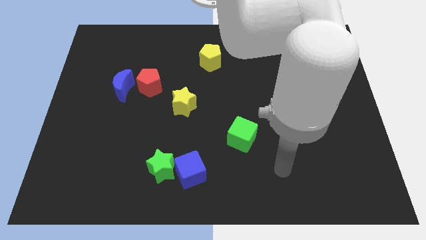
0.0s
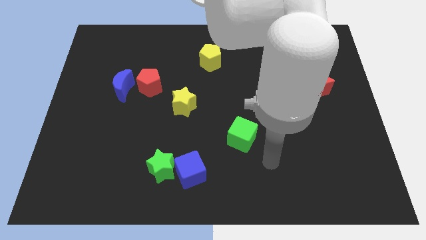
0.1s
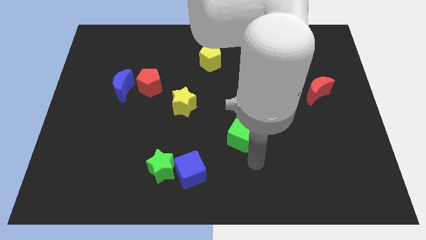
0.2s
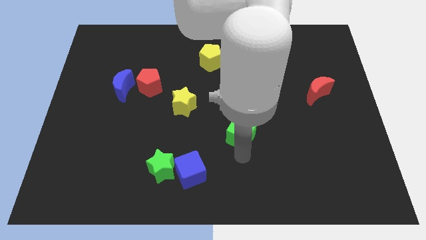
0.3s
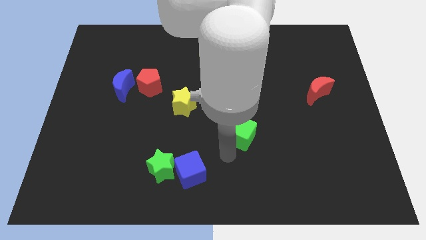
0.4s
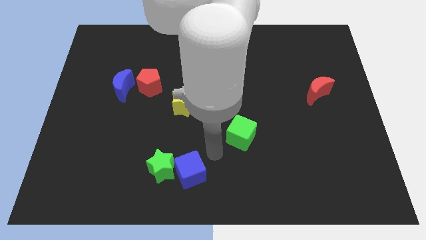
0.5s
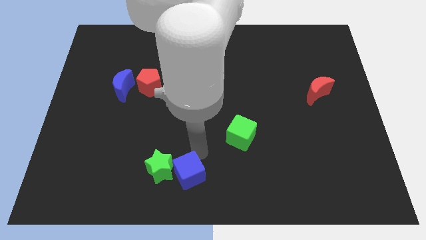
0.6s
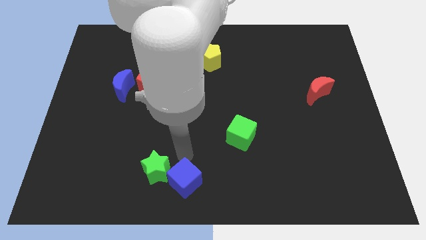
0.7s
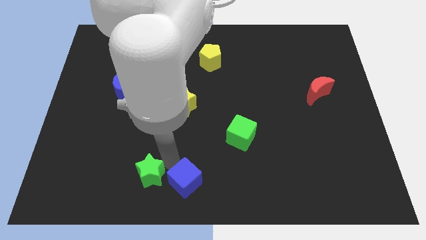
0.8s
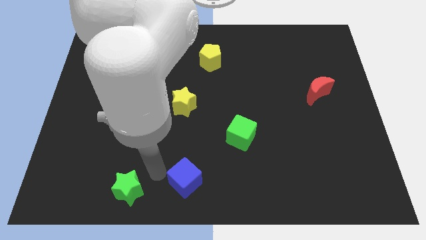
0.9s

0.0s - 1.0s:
move the blue cube away from the green star

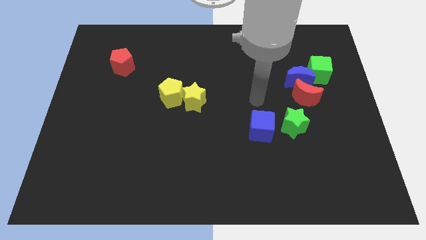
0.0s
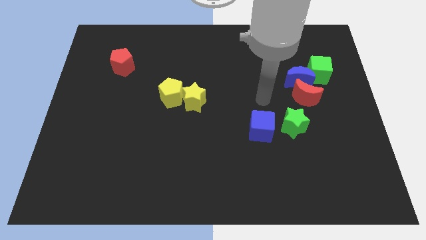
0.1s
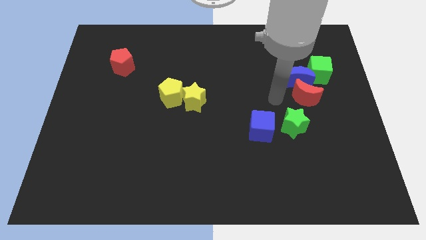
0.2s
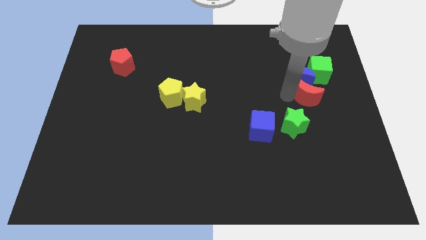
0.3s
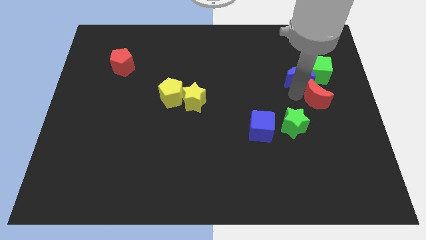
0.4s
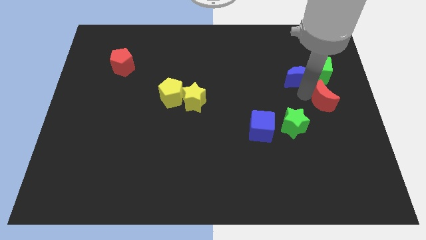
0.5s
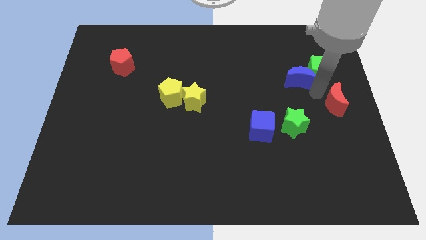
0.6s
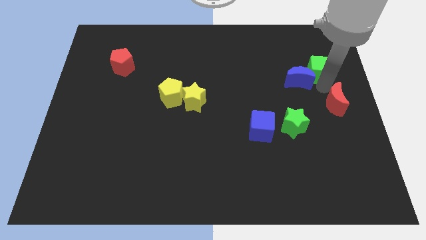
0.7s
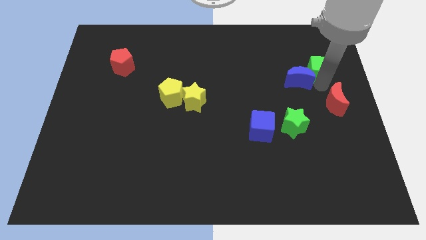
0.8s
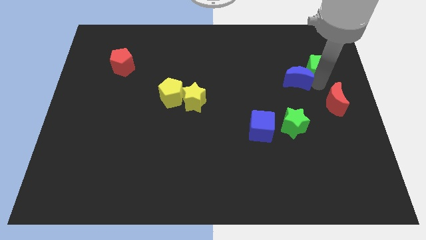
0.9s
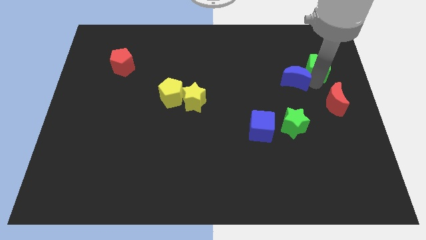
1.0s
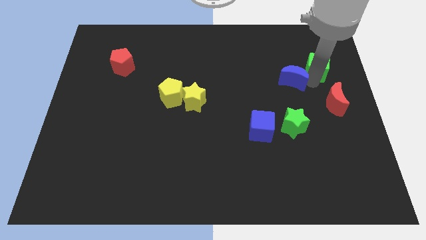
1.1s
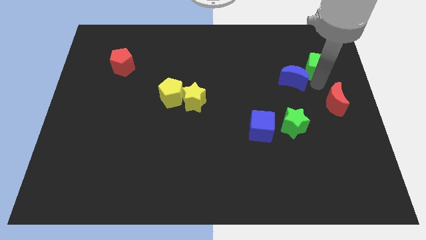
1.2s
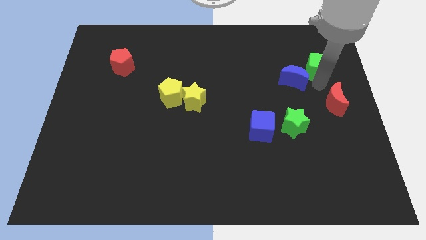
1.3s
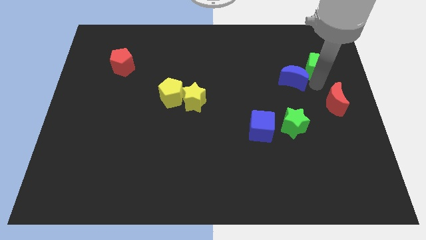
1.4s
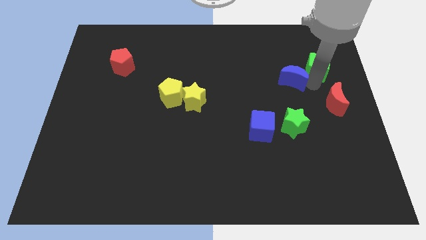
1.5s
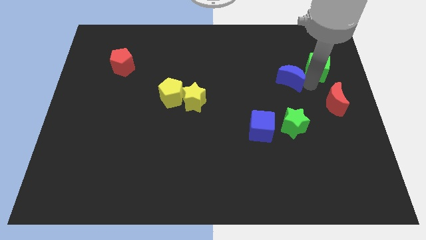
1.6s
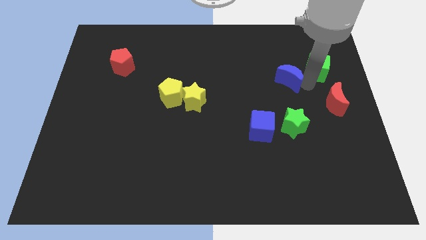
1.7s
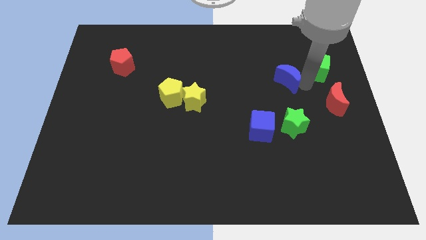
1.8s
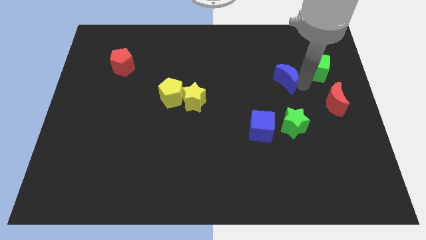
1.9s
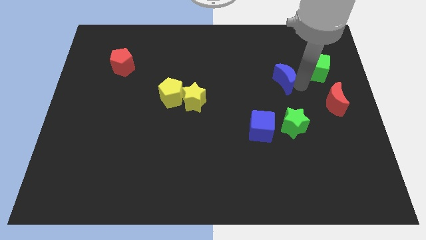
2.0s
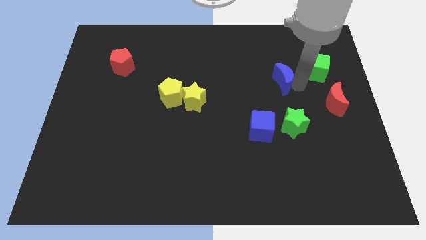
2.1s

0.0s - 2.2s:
pull the blue moon apart from the red moon and green cube

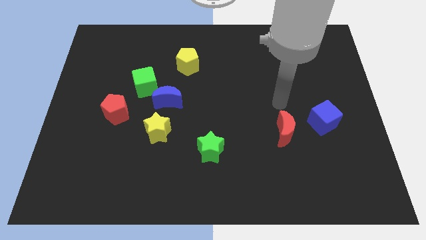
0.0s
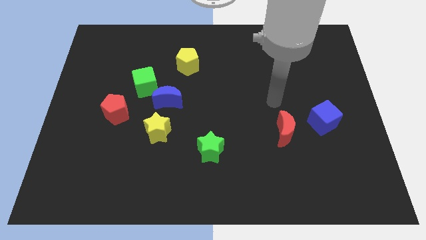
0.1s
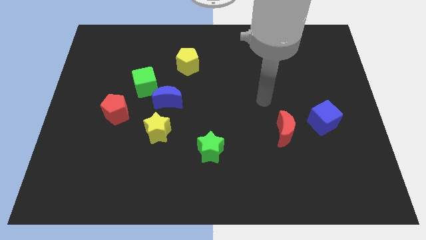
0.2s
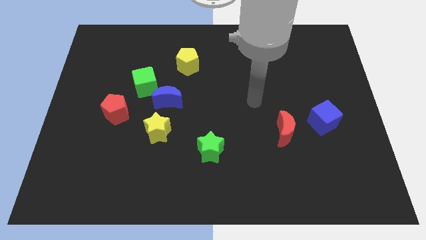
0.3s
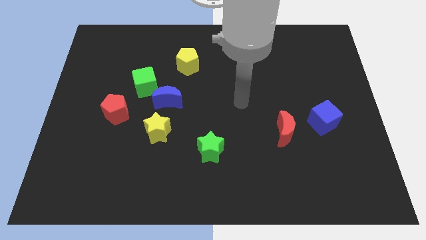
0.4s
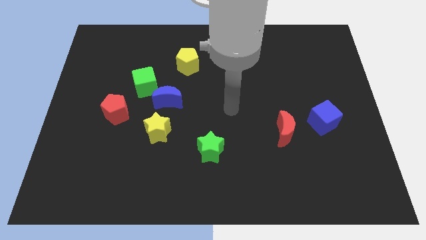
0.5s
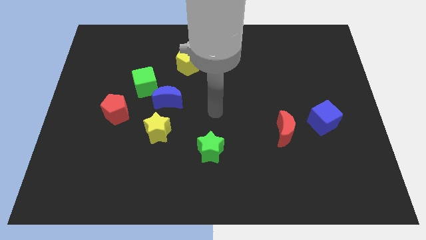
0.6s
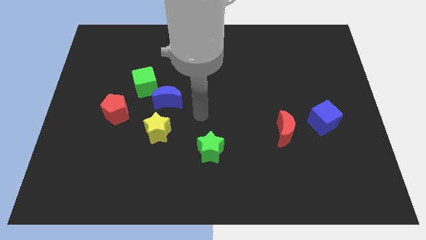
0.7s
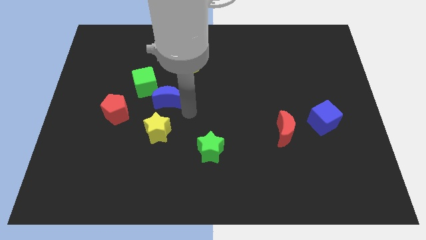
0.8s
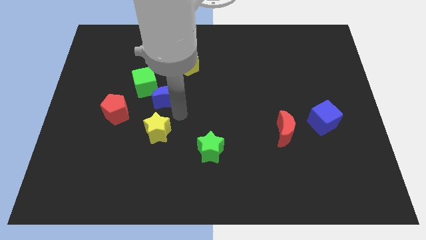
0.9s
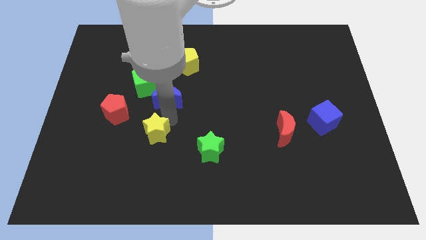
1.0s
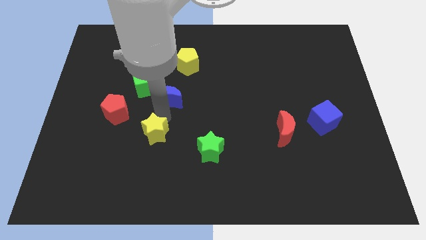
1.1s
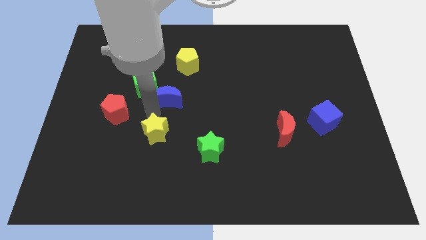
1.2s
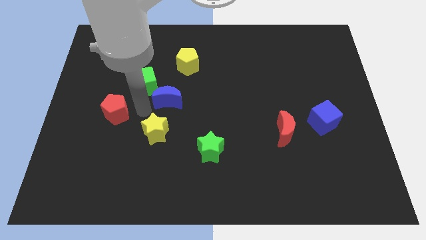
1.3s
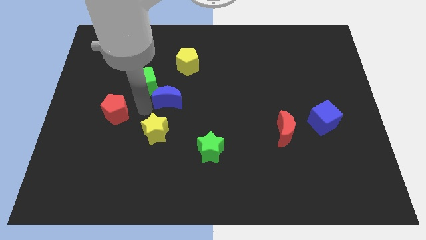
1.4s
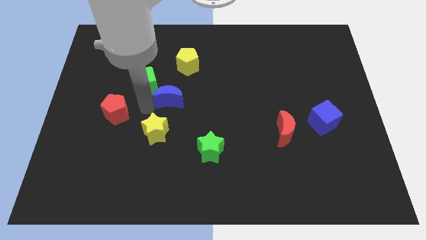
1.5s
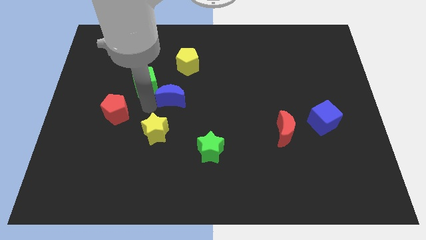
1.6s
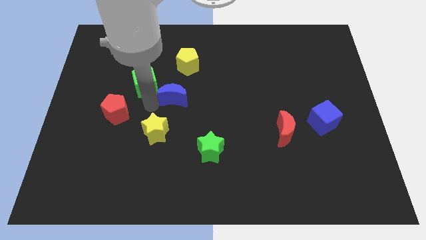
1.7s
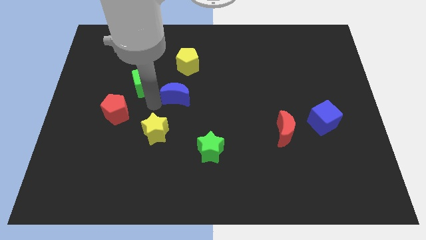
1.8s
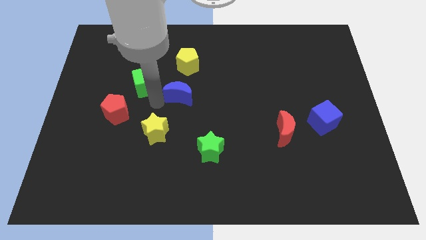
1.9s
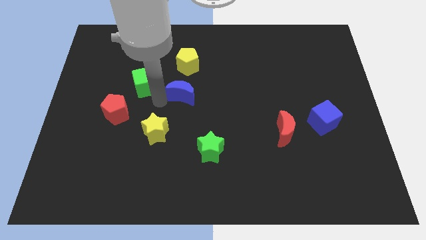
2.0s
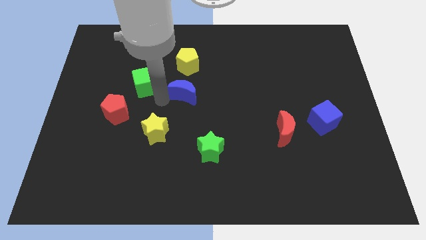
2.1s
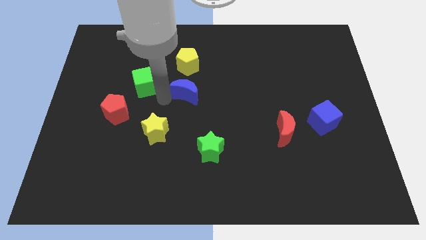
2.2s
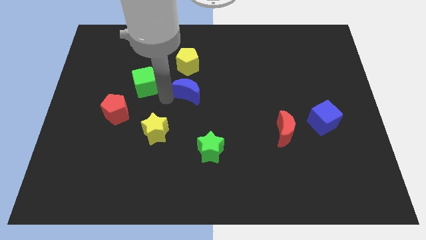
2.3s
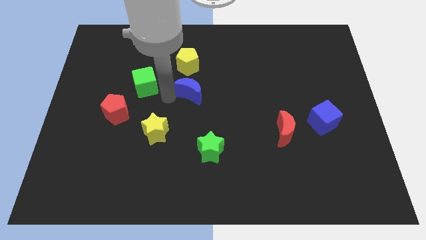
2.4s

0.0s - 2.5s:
separate the blue moon from the green cube and yellow star

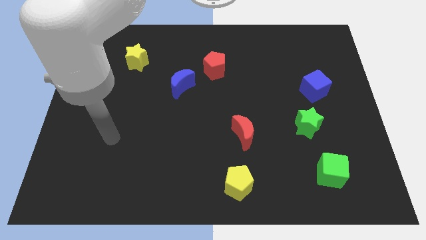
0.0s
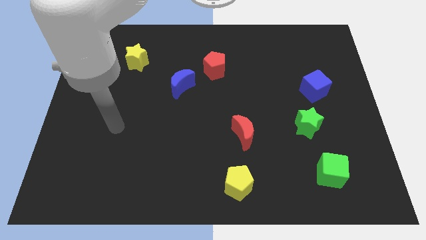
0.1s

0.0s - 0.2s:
pull the red pentagon apart from the blue moon

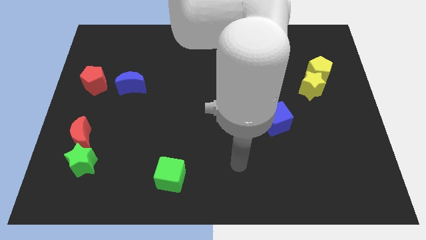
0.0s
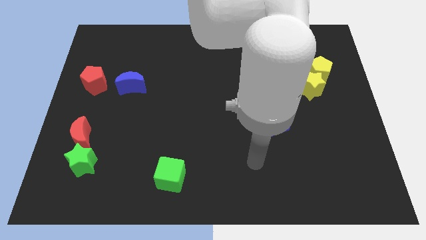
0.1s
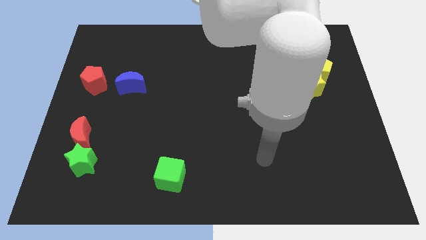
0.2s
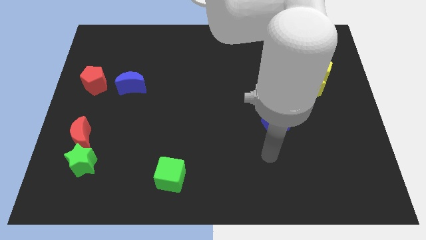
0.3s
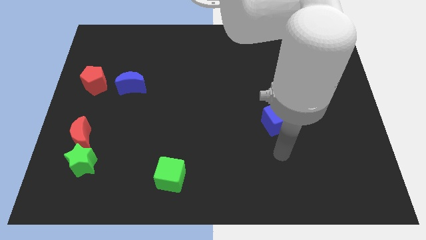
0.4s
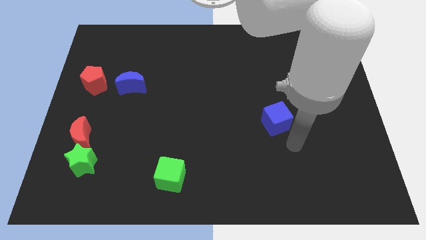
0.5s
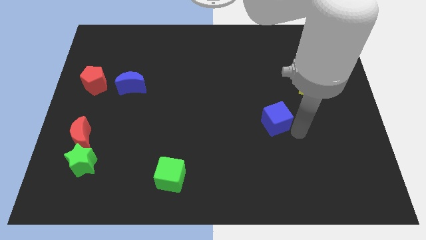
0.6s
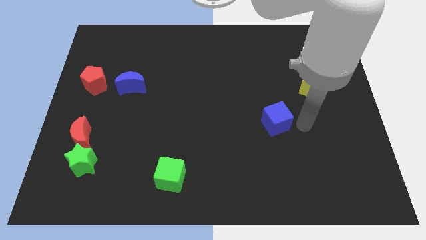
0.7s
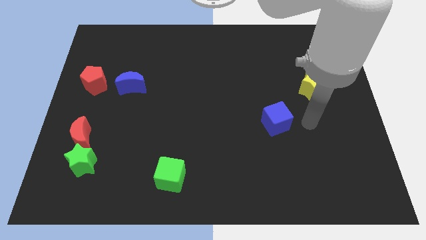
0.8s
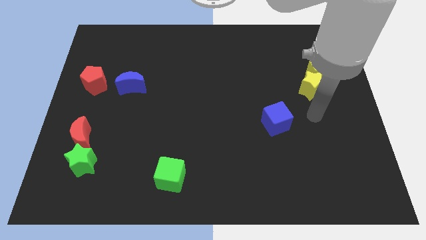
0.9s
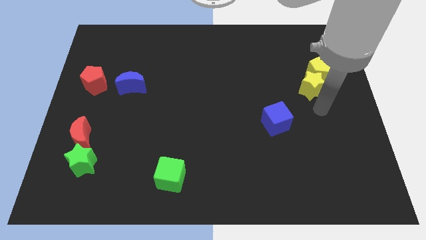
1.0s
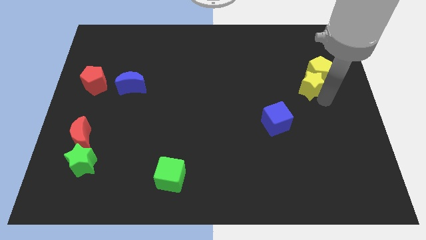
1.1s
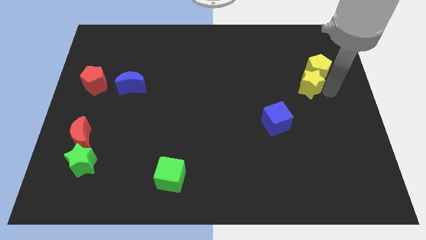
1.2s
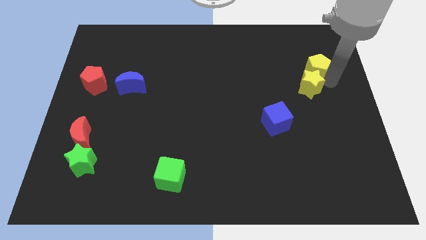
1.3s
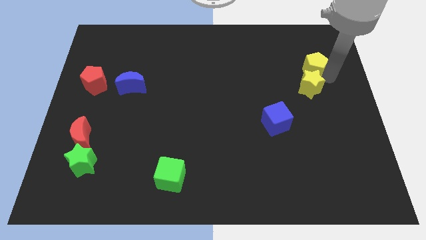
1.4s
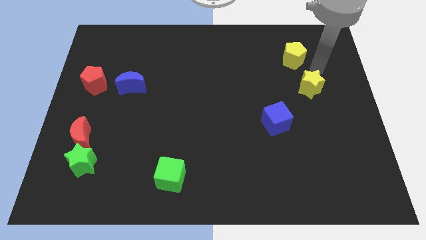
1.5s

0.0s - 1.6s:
separate the yellow star from the yellow pentagon

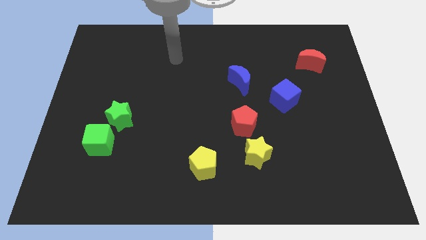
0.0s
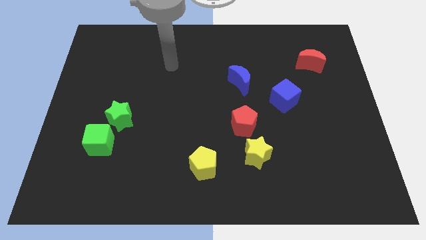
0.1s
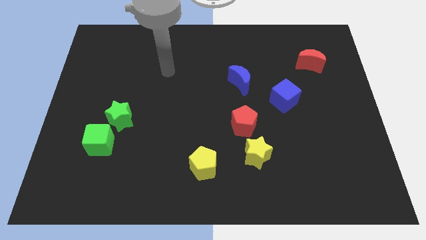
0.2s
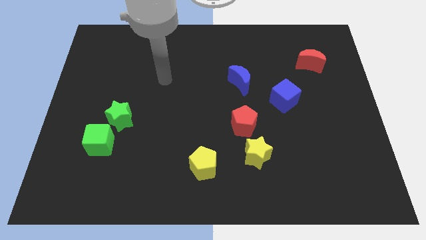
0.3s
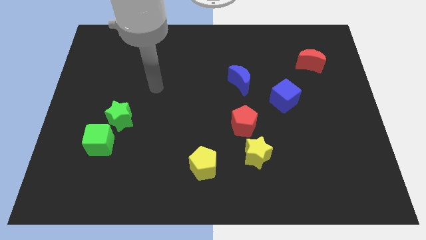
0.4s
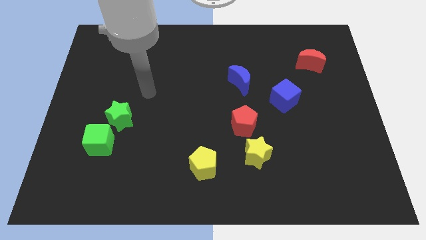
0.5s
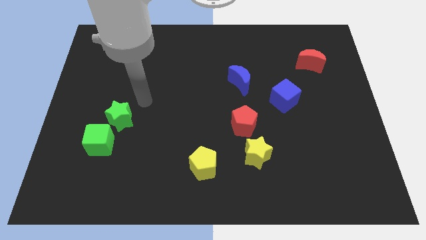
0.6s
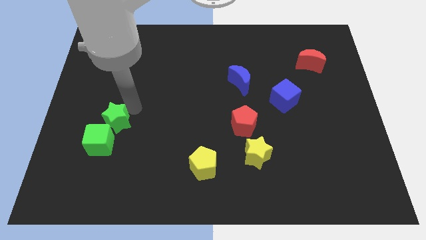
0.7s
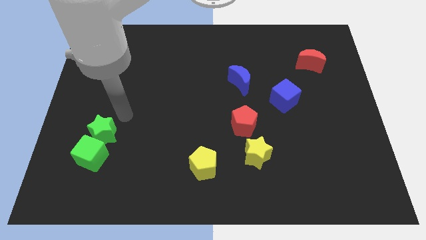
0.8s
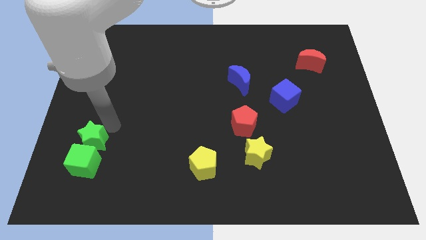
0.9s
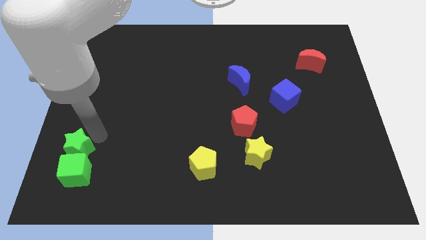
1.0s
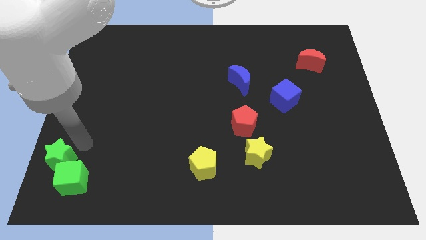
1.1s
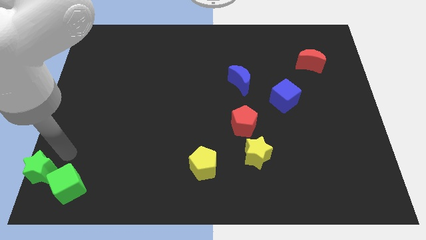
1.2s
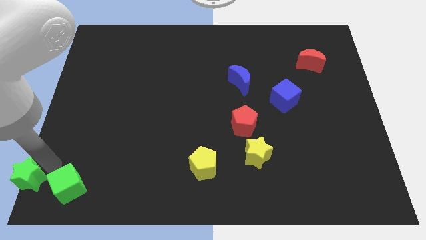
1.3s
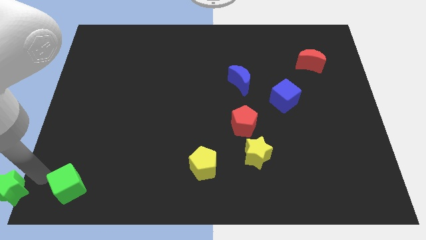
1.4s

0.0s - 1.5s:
separate the green cube from the green star

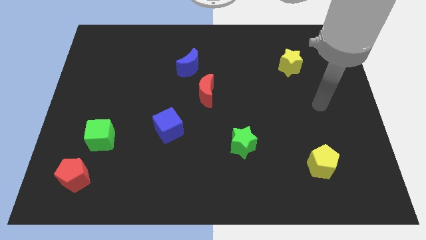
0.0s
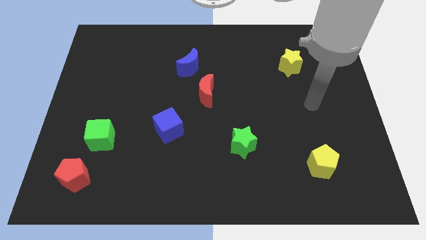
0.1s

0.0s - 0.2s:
separate the red moon from the blue moon
